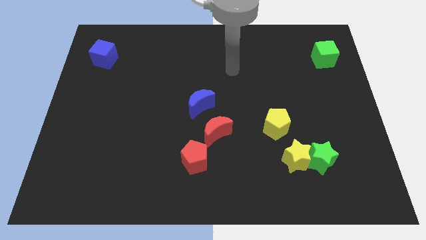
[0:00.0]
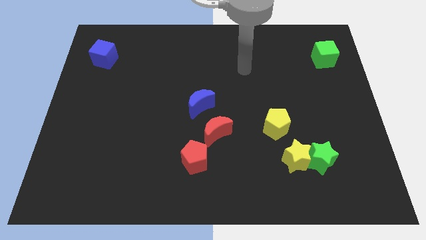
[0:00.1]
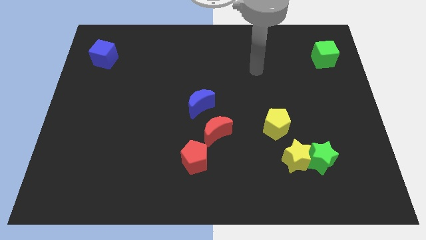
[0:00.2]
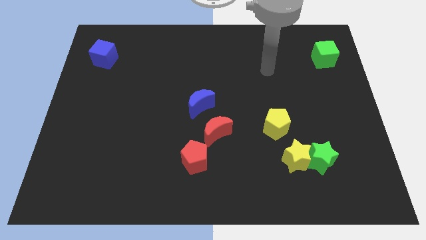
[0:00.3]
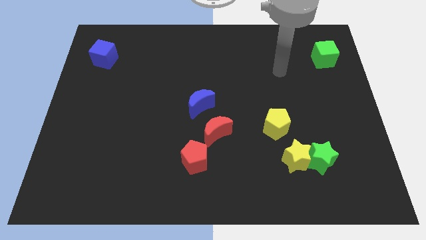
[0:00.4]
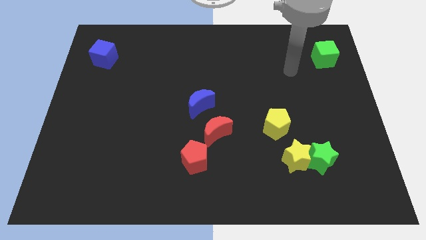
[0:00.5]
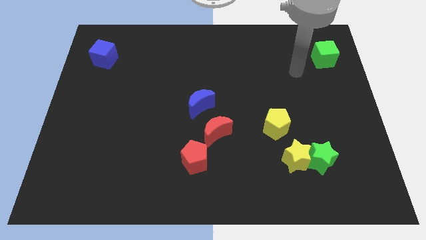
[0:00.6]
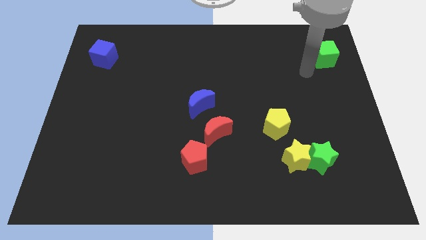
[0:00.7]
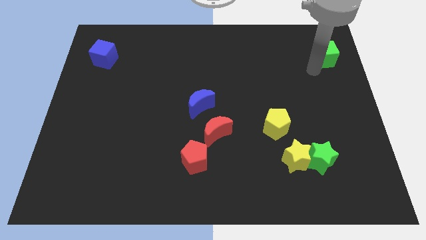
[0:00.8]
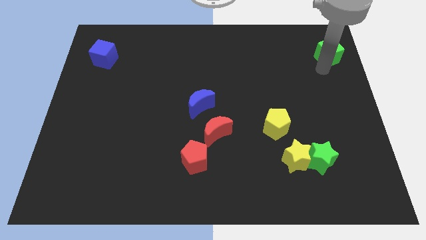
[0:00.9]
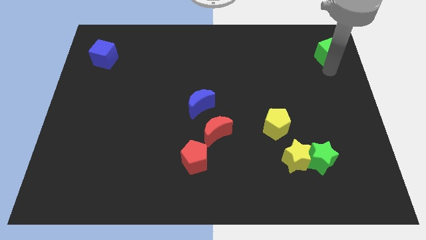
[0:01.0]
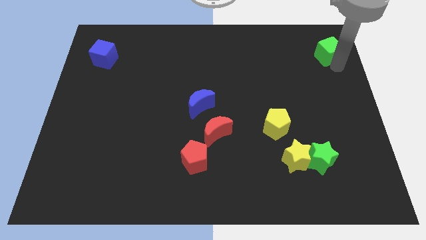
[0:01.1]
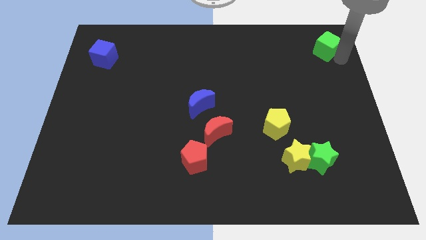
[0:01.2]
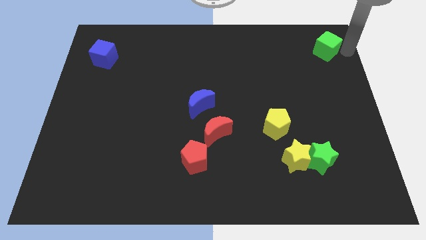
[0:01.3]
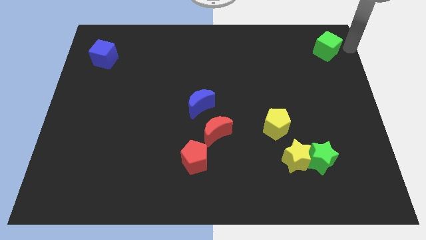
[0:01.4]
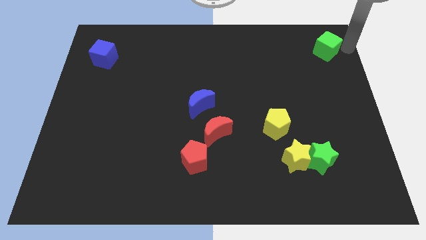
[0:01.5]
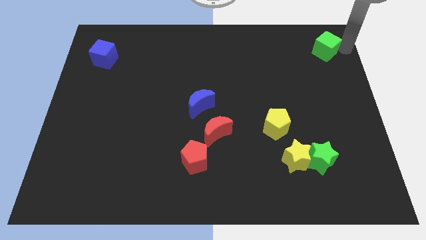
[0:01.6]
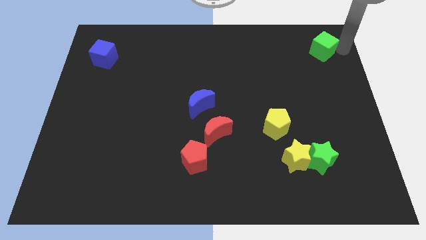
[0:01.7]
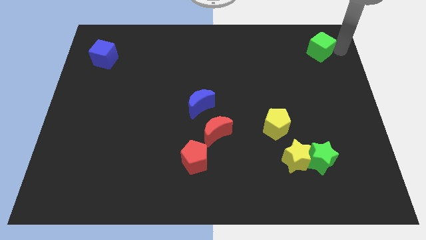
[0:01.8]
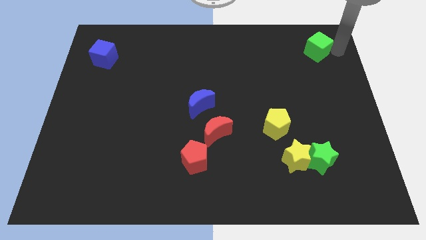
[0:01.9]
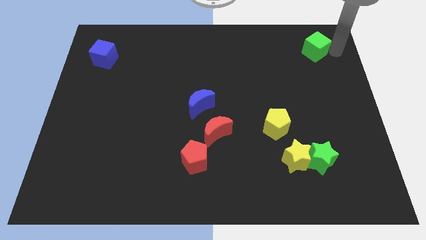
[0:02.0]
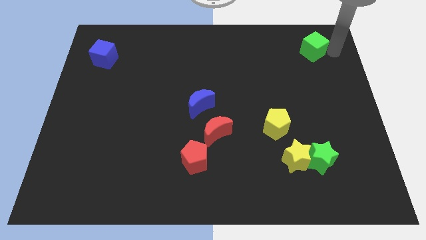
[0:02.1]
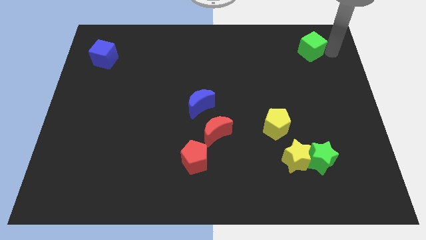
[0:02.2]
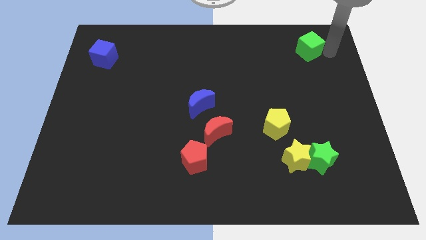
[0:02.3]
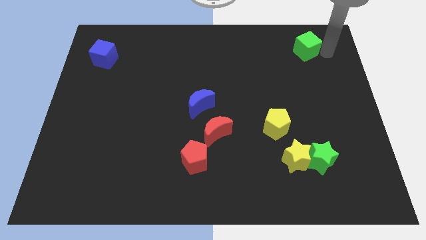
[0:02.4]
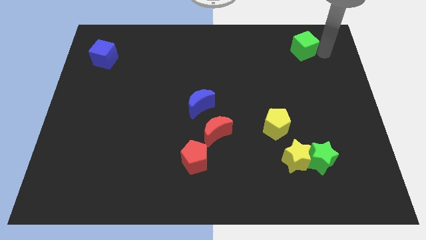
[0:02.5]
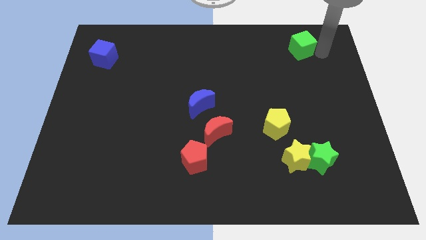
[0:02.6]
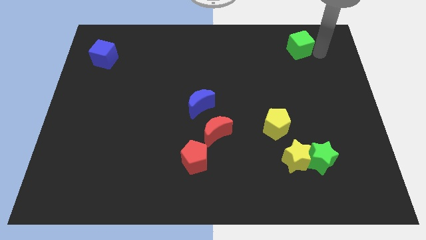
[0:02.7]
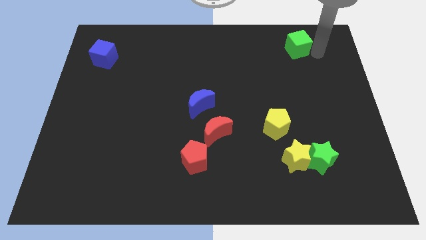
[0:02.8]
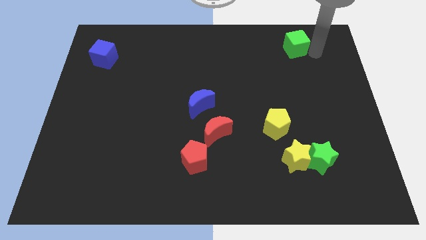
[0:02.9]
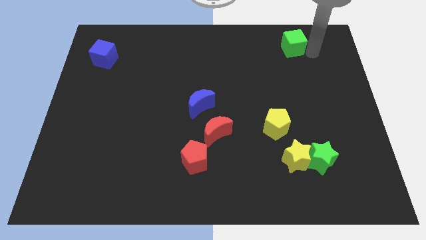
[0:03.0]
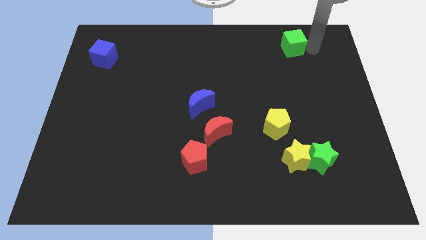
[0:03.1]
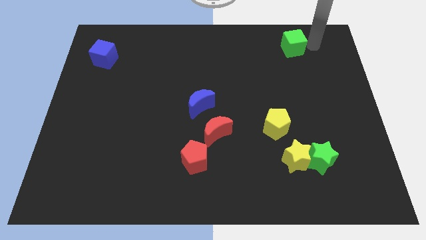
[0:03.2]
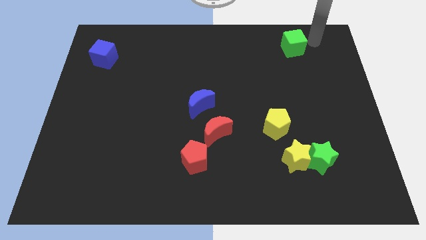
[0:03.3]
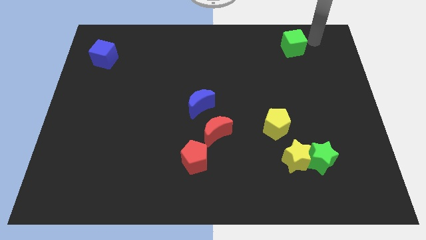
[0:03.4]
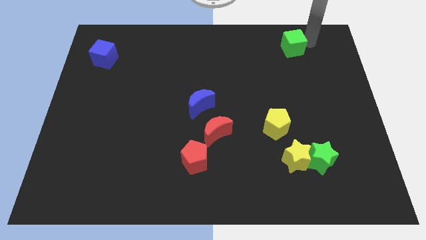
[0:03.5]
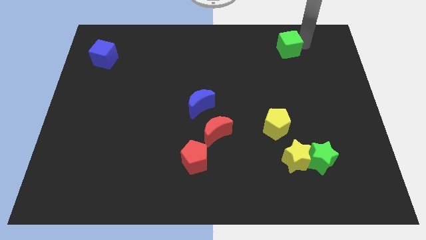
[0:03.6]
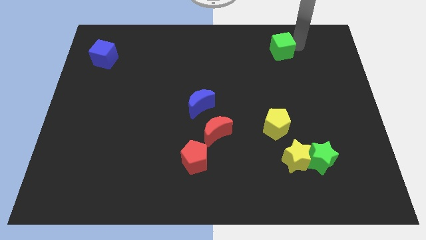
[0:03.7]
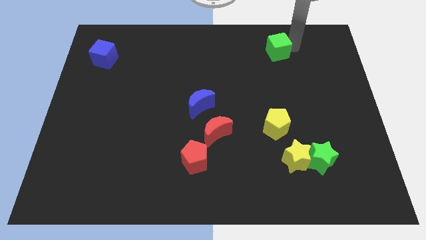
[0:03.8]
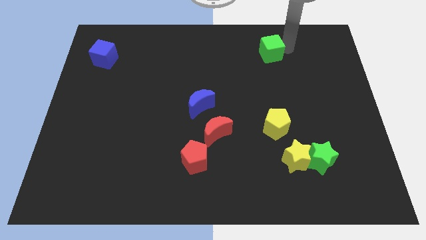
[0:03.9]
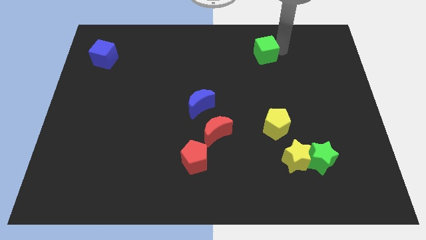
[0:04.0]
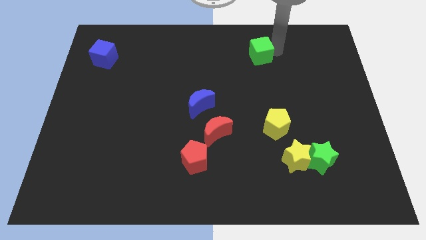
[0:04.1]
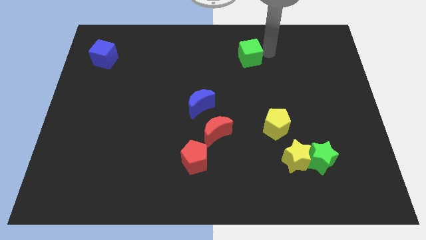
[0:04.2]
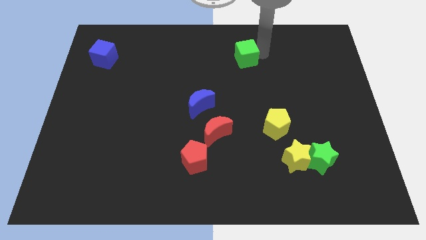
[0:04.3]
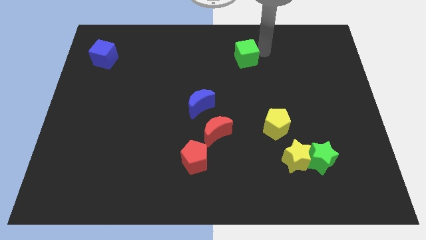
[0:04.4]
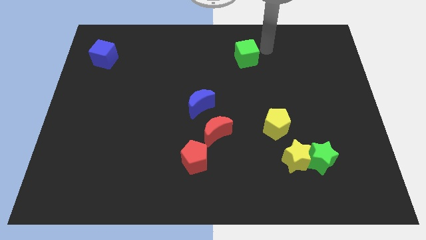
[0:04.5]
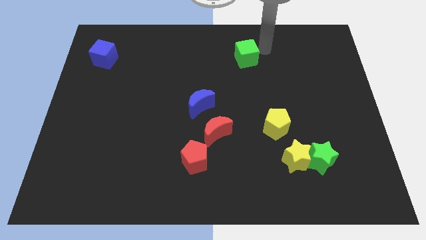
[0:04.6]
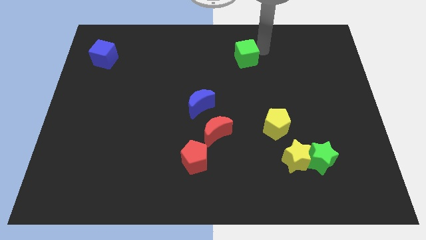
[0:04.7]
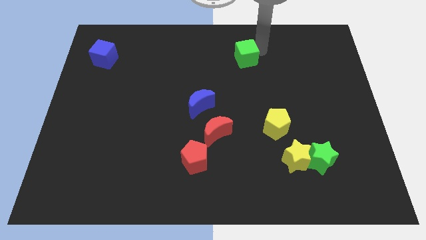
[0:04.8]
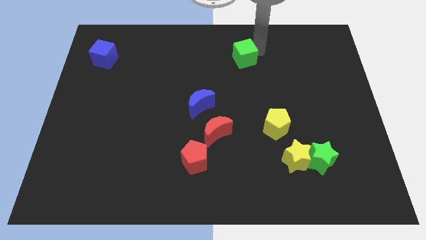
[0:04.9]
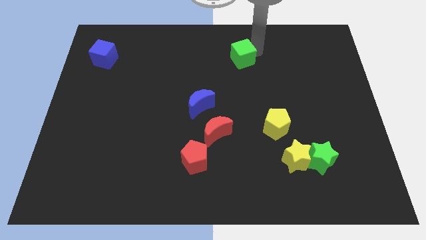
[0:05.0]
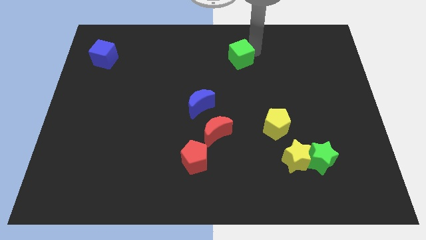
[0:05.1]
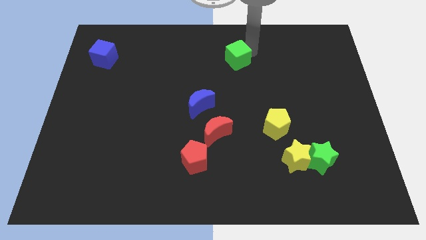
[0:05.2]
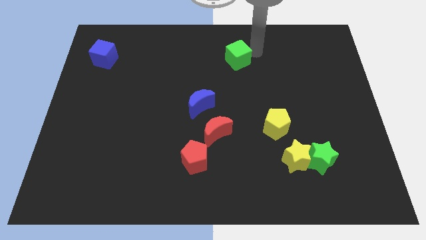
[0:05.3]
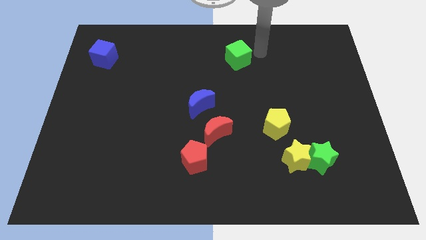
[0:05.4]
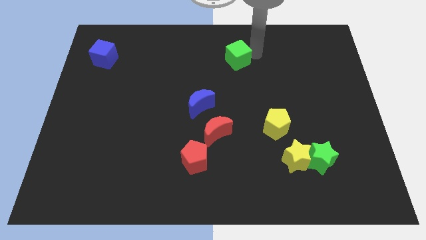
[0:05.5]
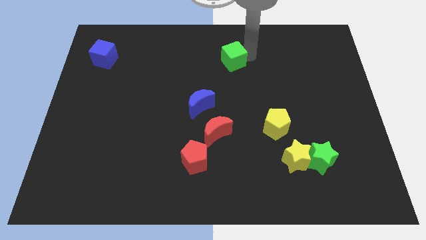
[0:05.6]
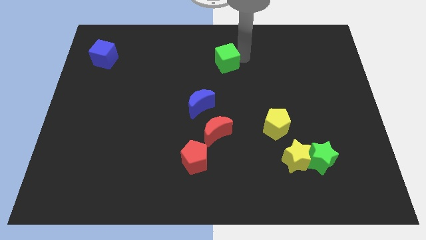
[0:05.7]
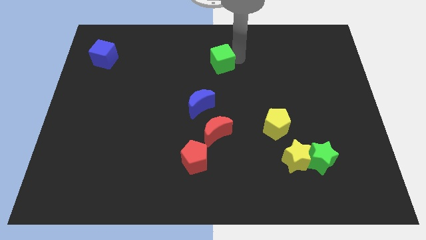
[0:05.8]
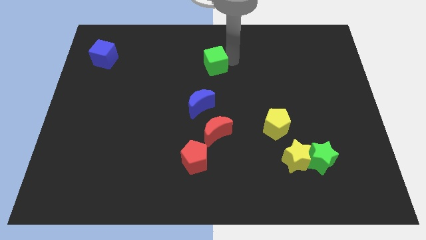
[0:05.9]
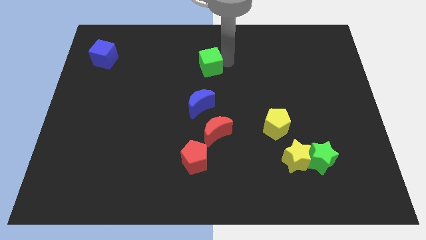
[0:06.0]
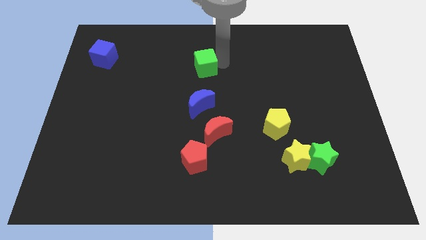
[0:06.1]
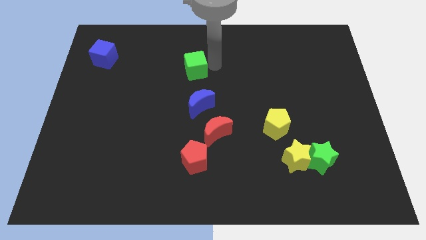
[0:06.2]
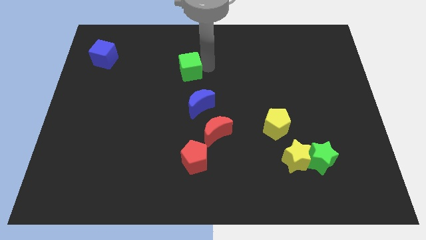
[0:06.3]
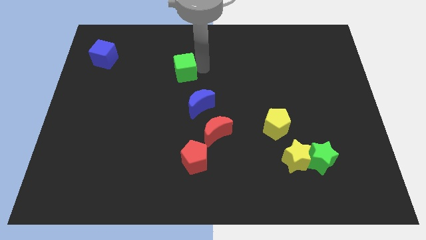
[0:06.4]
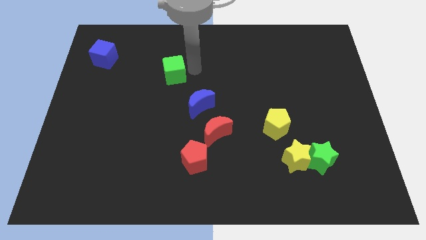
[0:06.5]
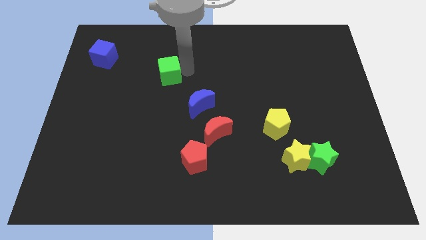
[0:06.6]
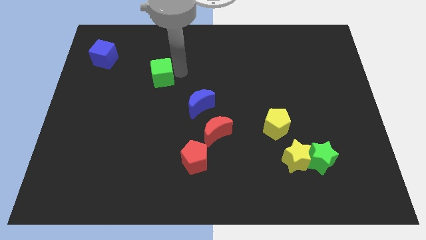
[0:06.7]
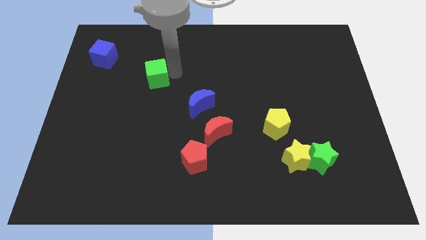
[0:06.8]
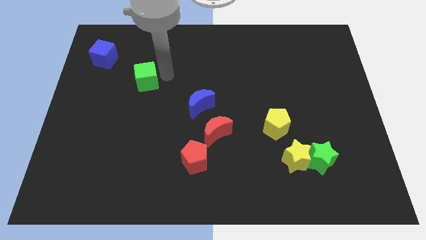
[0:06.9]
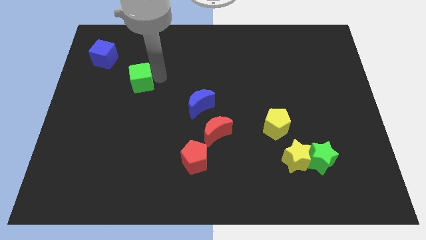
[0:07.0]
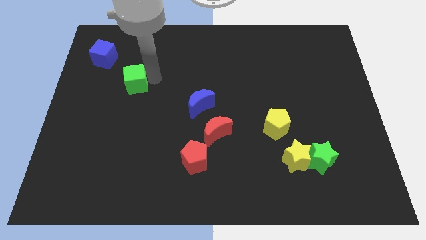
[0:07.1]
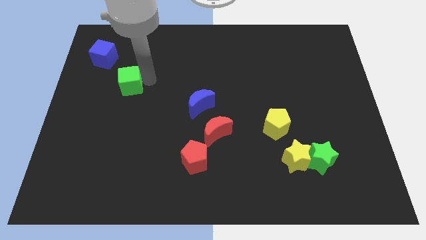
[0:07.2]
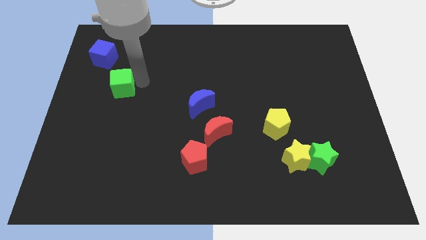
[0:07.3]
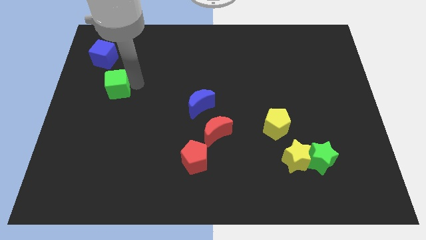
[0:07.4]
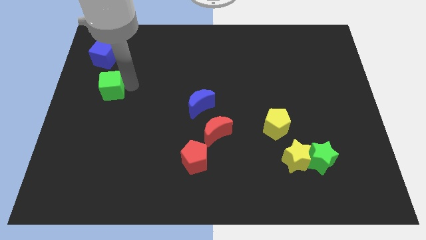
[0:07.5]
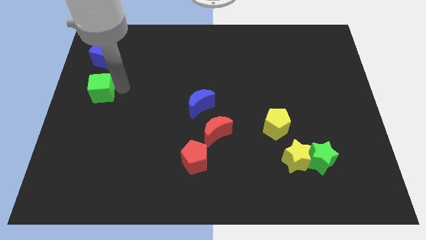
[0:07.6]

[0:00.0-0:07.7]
move the green cube to the left side of the board
